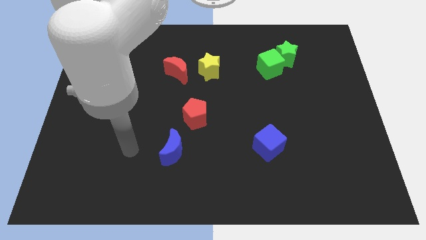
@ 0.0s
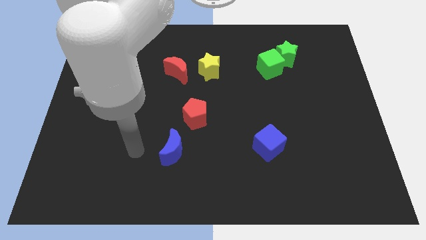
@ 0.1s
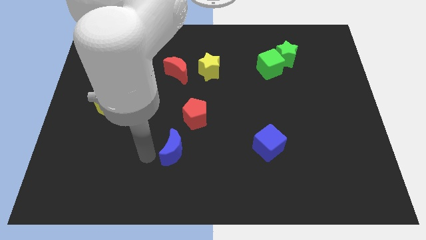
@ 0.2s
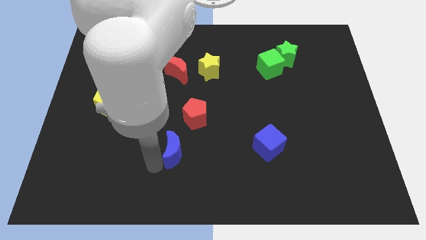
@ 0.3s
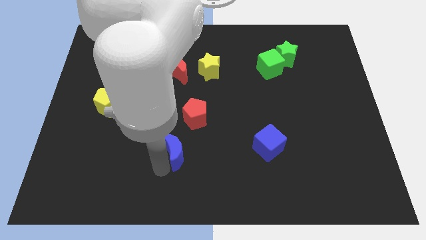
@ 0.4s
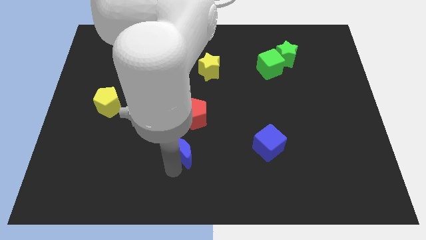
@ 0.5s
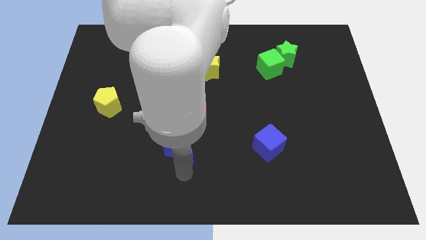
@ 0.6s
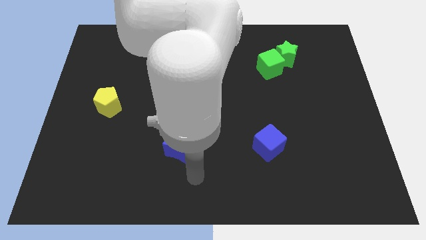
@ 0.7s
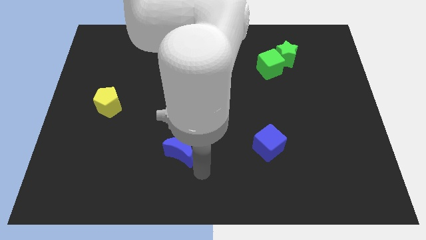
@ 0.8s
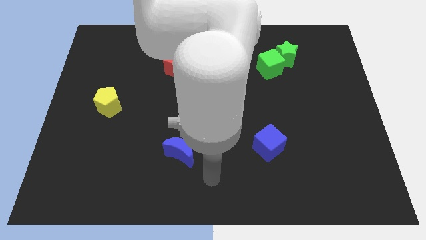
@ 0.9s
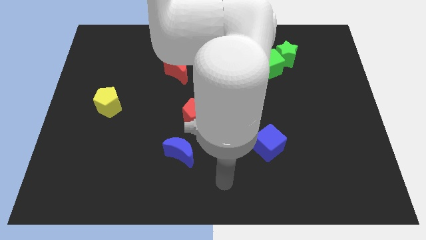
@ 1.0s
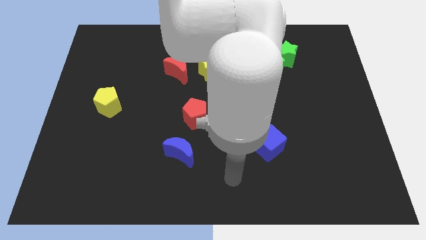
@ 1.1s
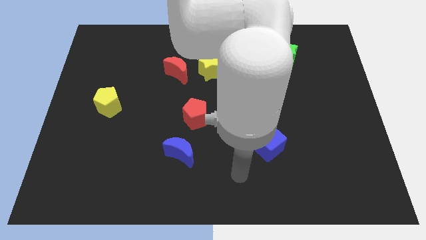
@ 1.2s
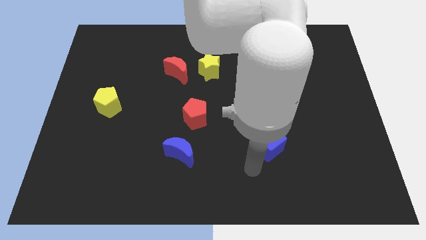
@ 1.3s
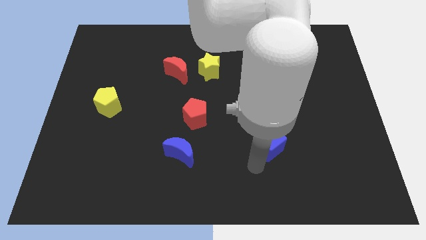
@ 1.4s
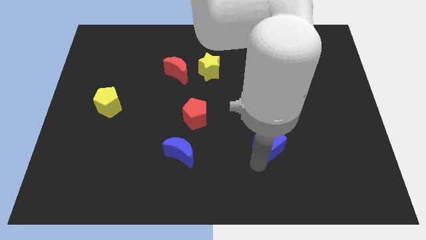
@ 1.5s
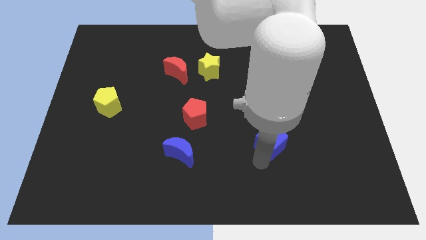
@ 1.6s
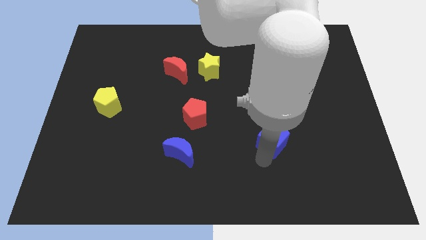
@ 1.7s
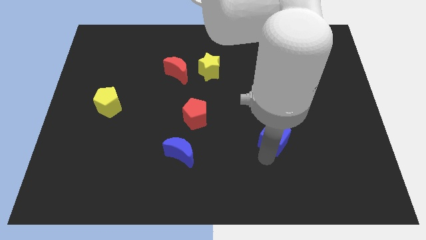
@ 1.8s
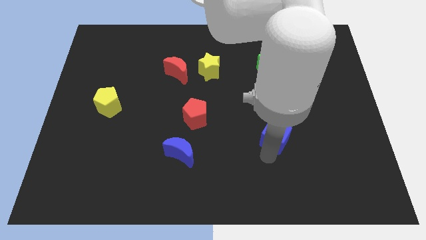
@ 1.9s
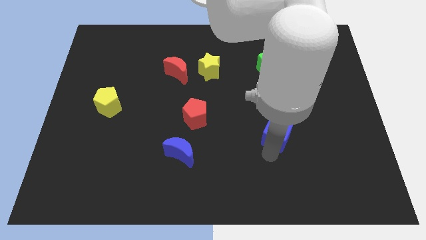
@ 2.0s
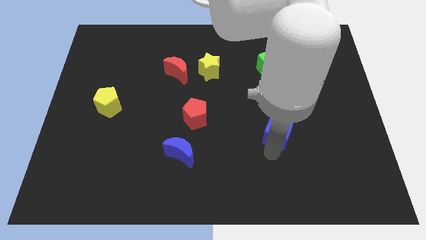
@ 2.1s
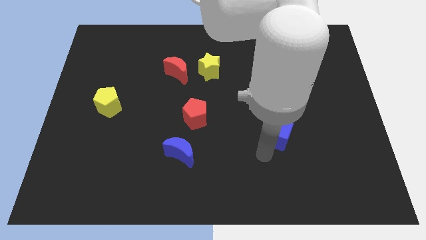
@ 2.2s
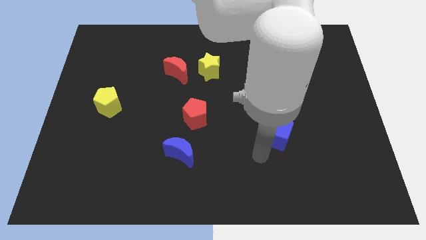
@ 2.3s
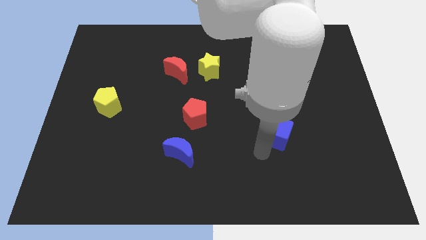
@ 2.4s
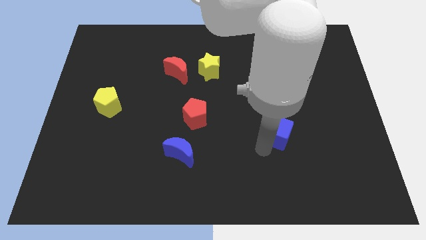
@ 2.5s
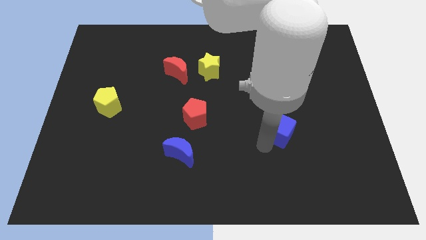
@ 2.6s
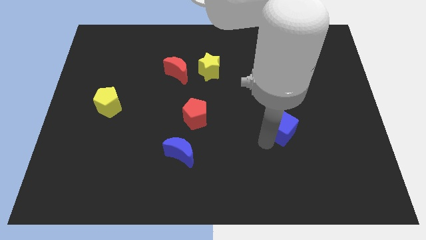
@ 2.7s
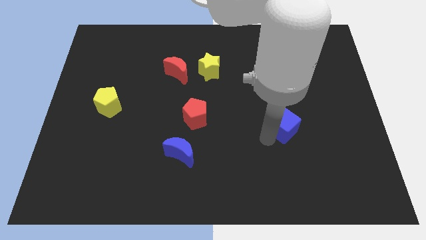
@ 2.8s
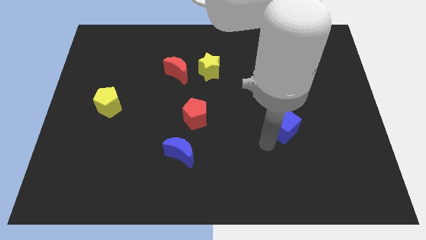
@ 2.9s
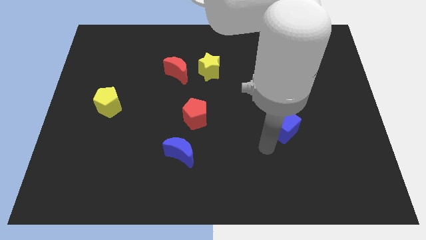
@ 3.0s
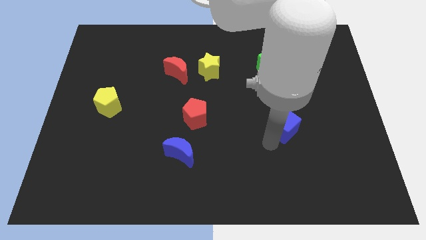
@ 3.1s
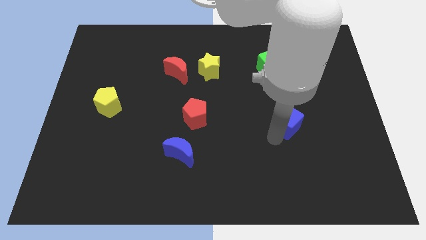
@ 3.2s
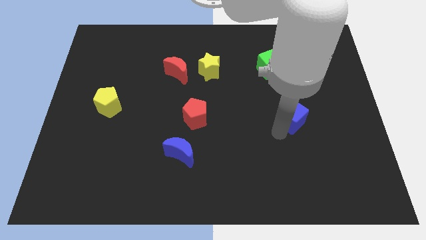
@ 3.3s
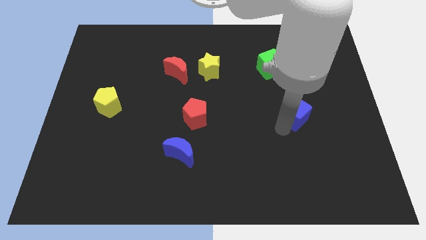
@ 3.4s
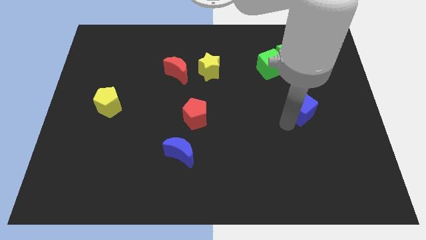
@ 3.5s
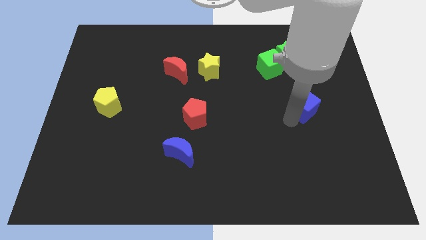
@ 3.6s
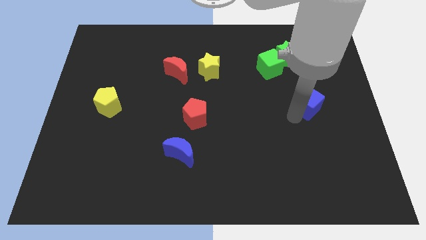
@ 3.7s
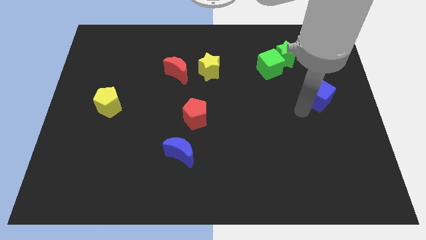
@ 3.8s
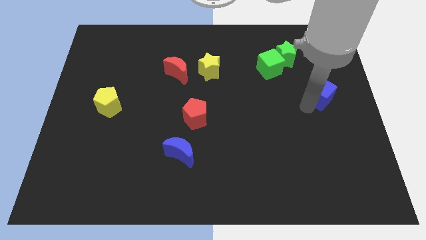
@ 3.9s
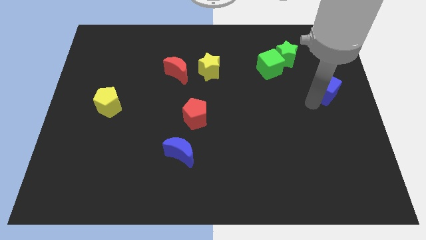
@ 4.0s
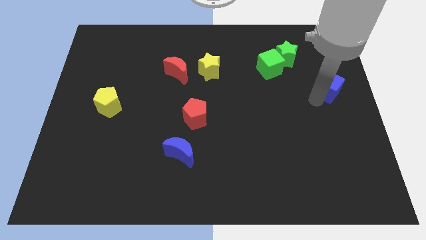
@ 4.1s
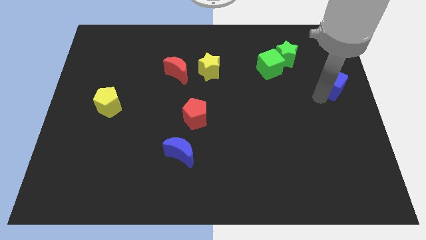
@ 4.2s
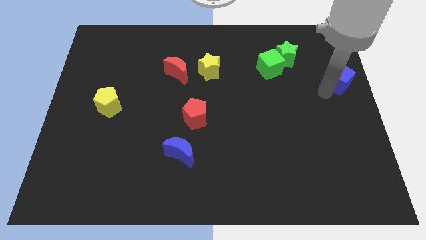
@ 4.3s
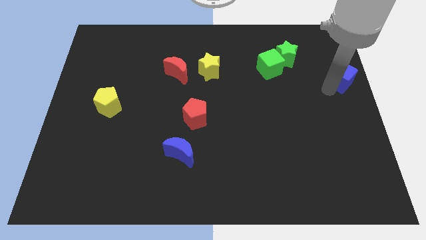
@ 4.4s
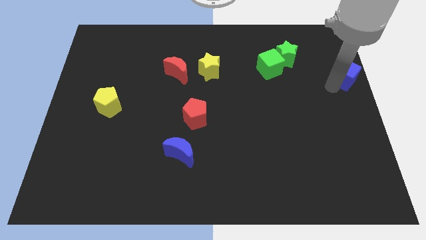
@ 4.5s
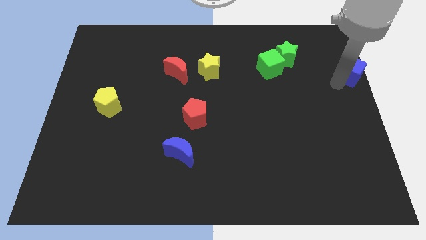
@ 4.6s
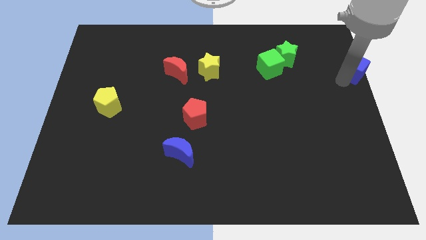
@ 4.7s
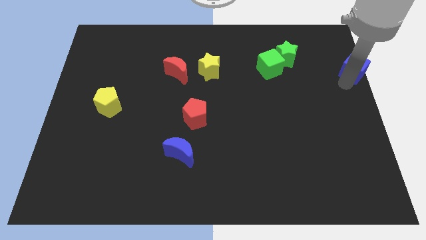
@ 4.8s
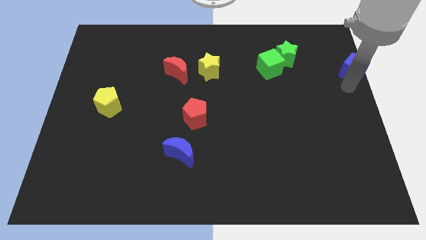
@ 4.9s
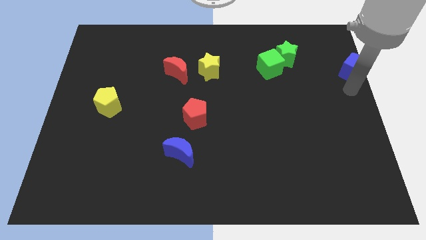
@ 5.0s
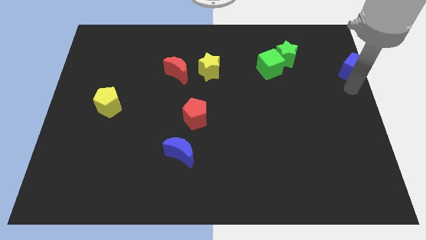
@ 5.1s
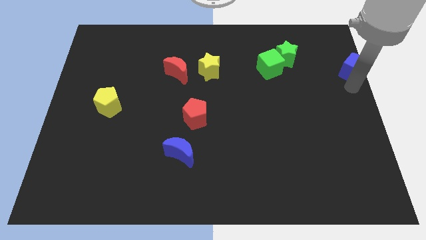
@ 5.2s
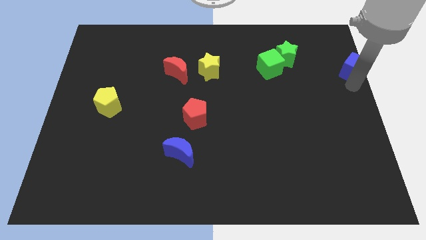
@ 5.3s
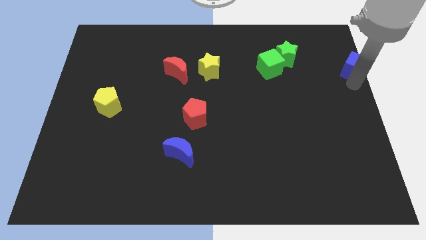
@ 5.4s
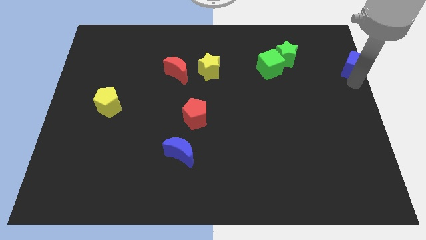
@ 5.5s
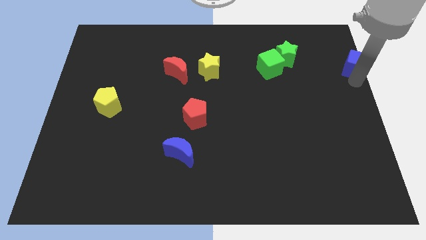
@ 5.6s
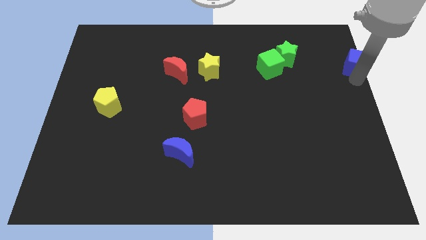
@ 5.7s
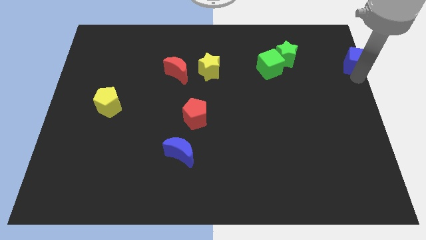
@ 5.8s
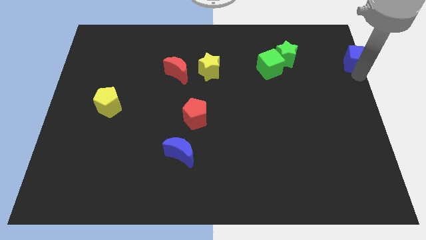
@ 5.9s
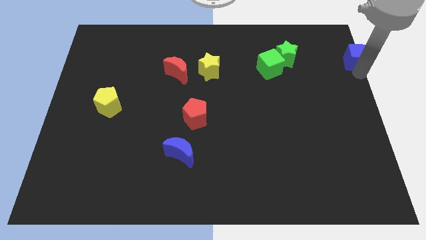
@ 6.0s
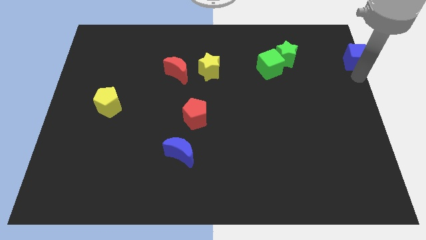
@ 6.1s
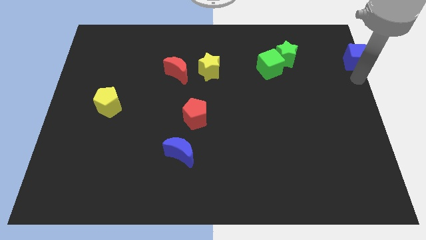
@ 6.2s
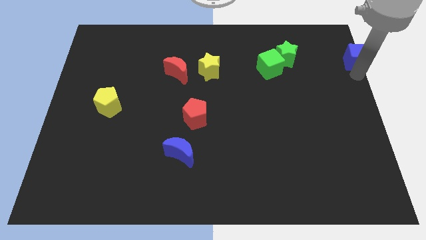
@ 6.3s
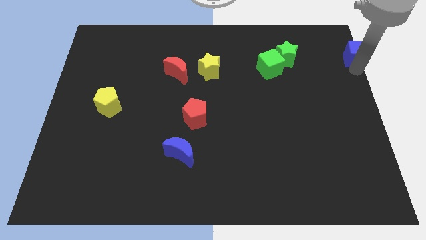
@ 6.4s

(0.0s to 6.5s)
slide the blue cube to the top right
